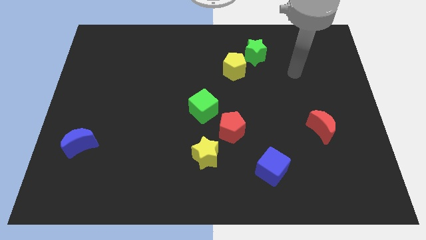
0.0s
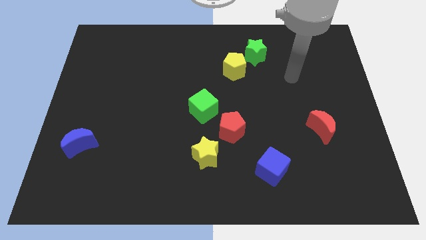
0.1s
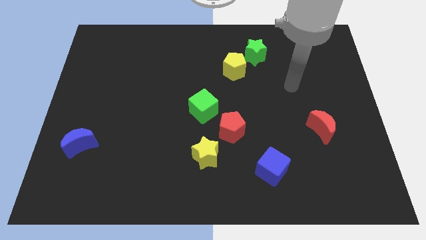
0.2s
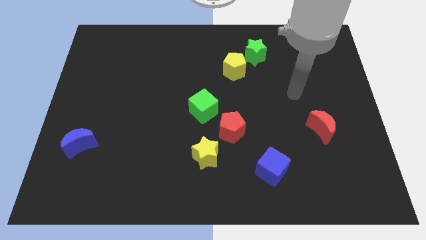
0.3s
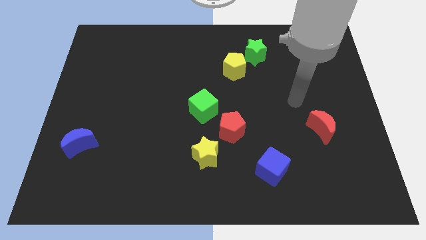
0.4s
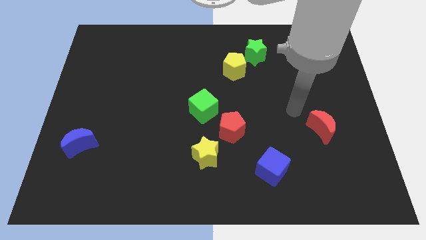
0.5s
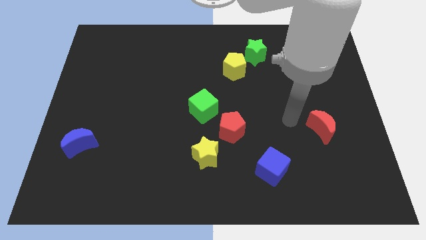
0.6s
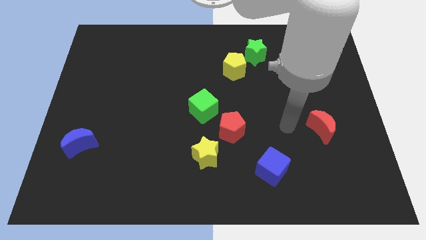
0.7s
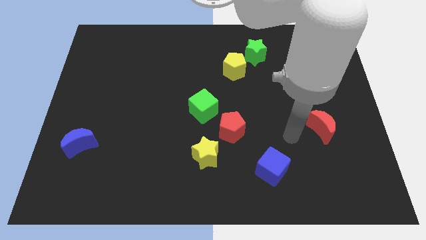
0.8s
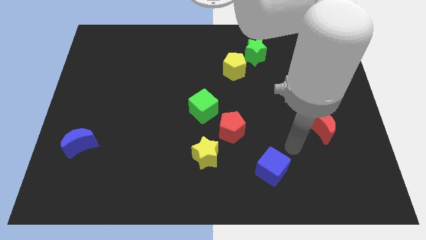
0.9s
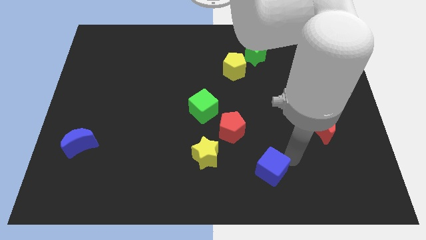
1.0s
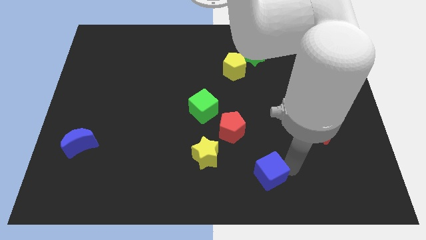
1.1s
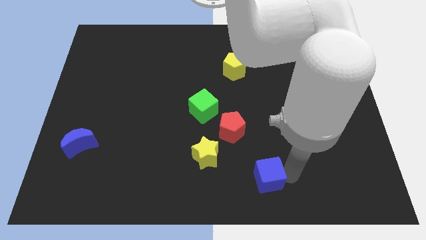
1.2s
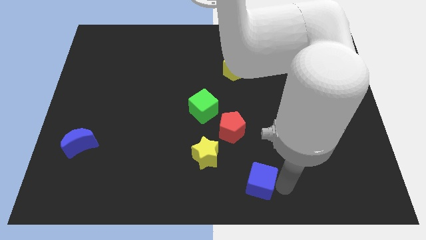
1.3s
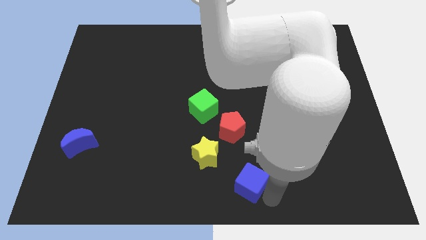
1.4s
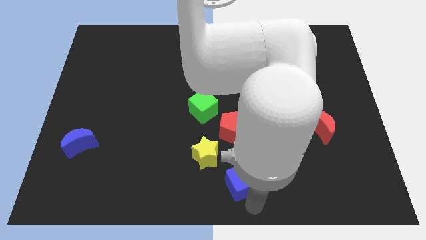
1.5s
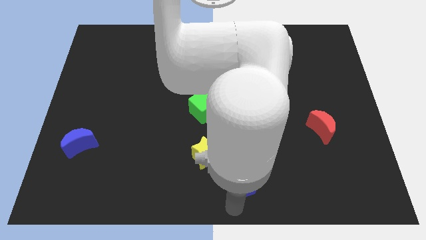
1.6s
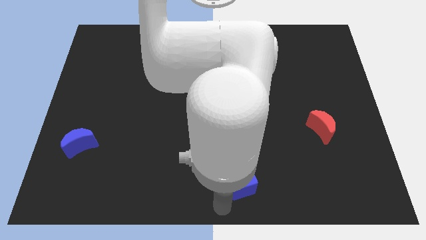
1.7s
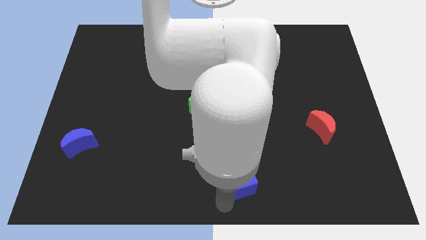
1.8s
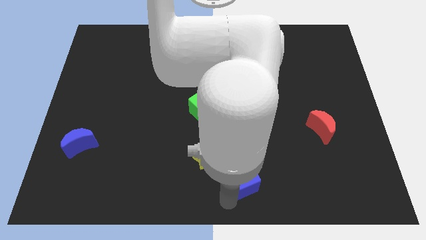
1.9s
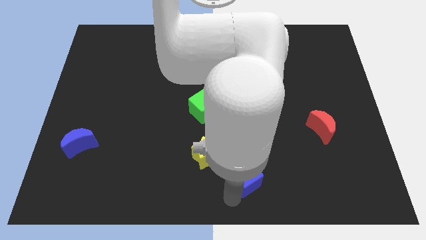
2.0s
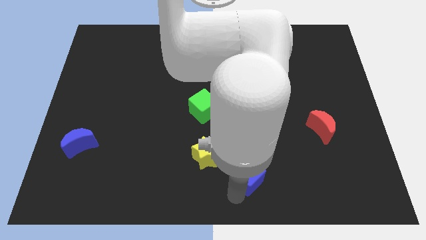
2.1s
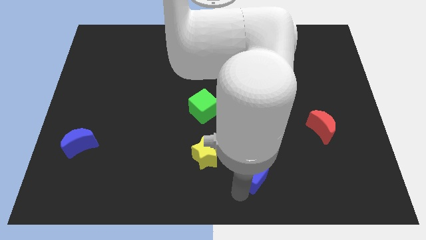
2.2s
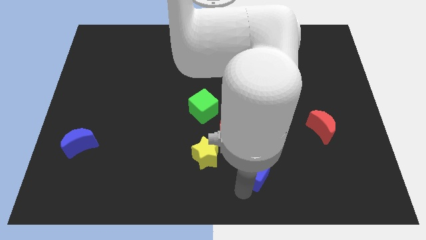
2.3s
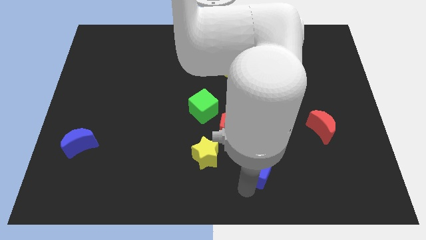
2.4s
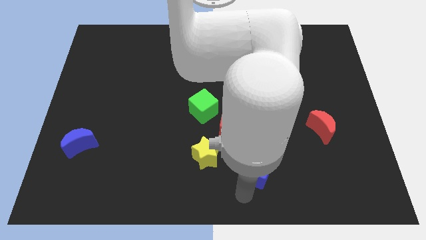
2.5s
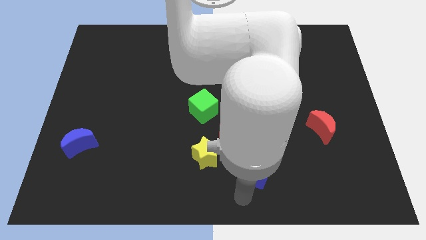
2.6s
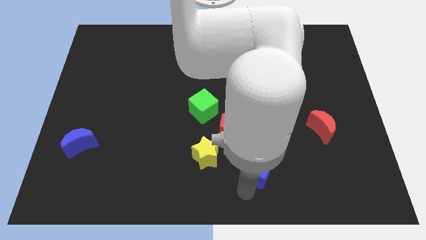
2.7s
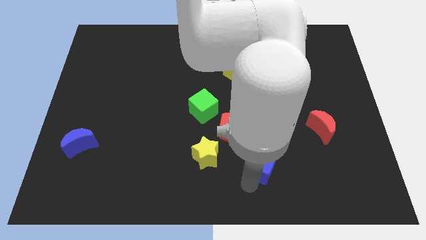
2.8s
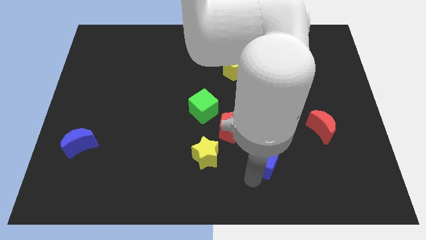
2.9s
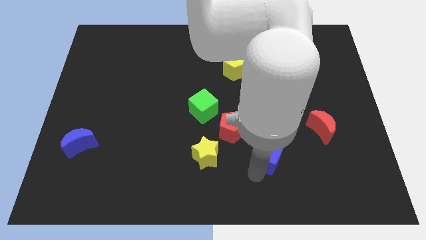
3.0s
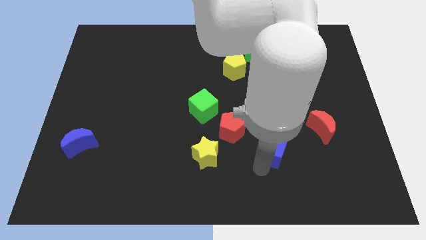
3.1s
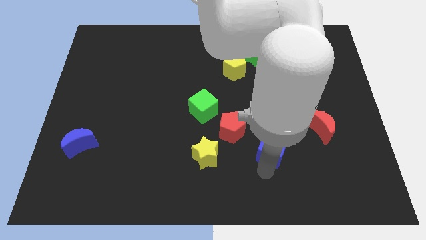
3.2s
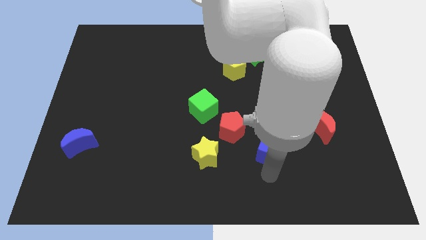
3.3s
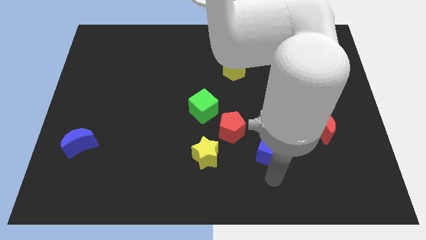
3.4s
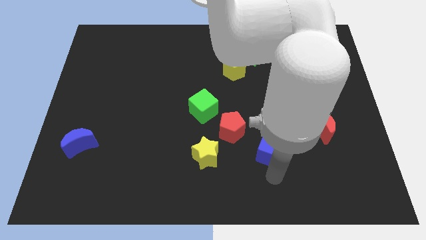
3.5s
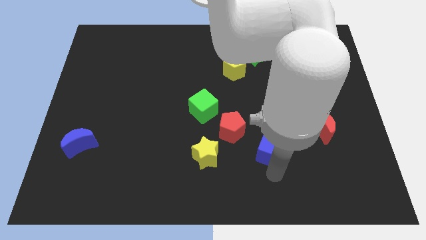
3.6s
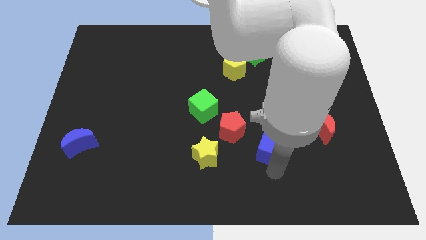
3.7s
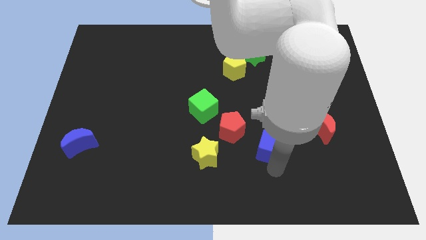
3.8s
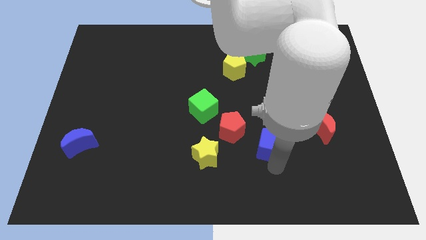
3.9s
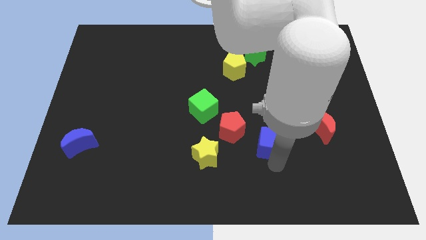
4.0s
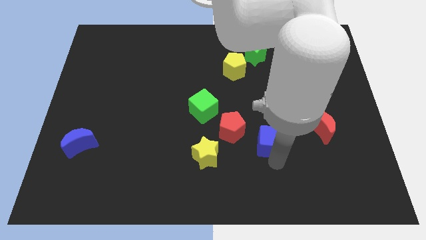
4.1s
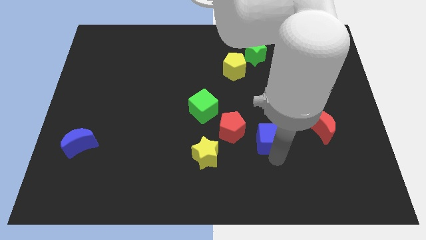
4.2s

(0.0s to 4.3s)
move the blue cube a little upwards

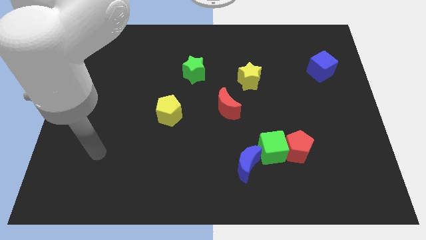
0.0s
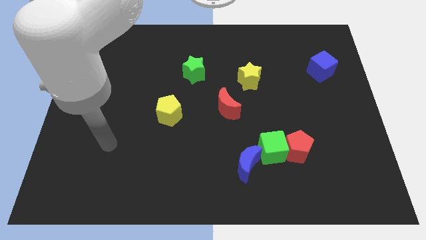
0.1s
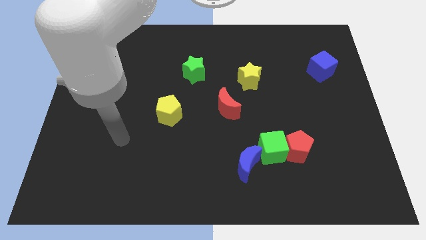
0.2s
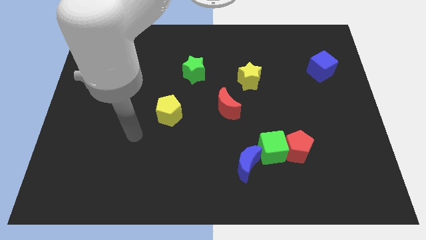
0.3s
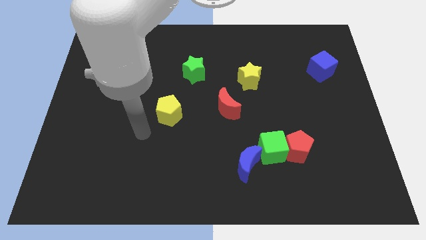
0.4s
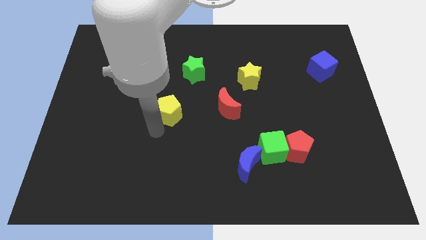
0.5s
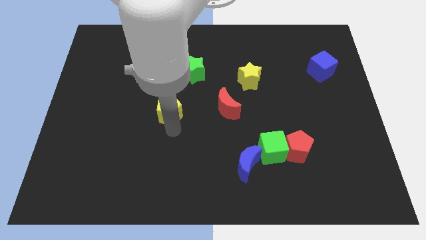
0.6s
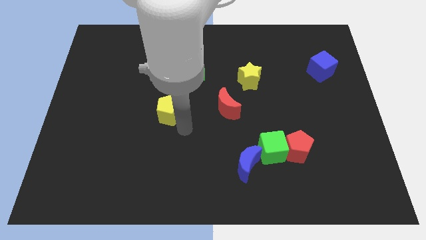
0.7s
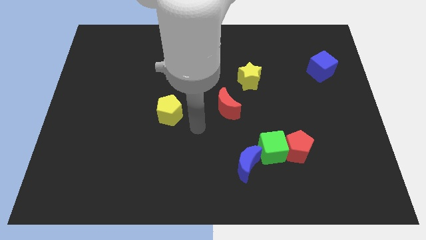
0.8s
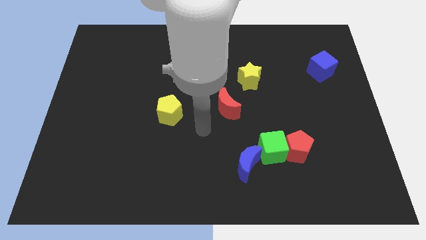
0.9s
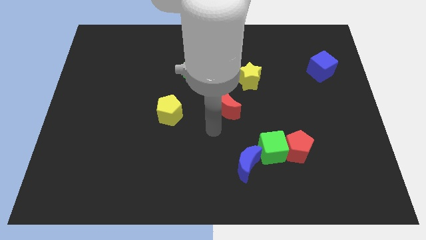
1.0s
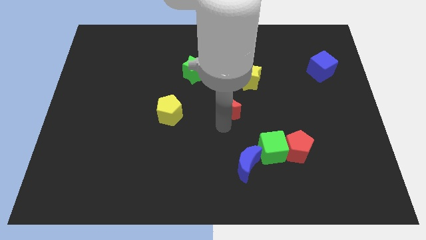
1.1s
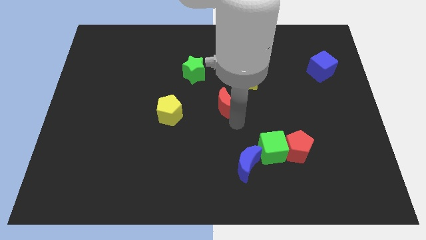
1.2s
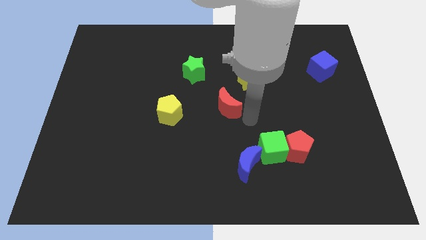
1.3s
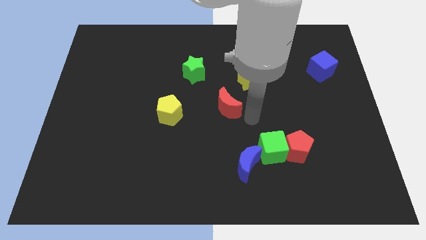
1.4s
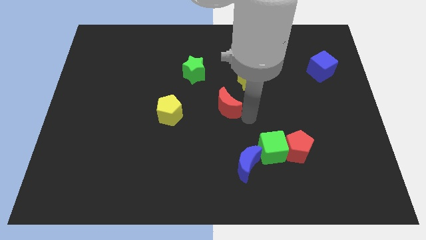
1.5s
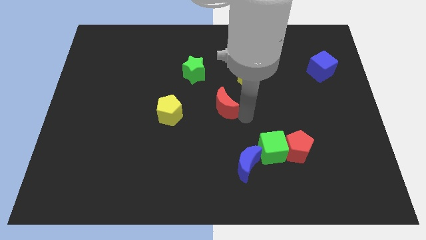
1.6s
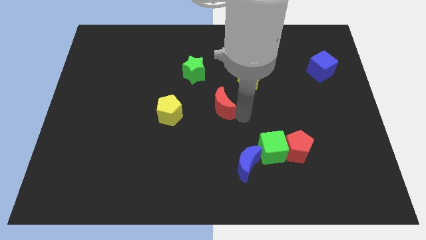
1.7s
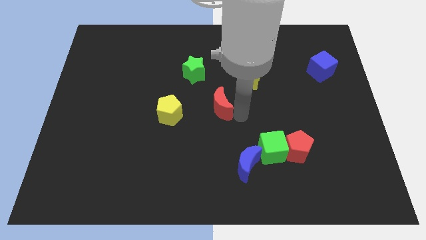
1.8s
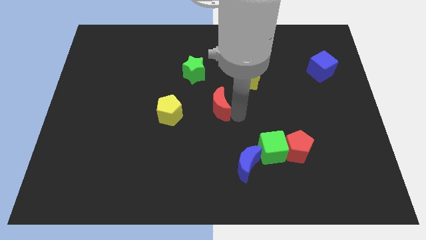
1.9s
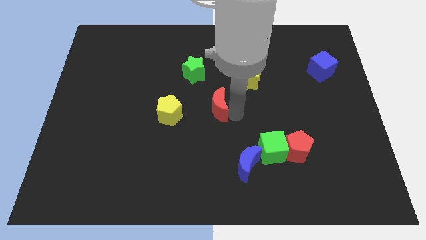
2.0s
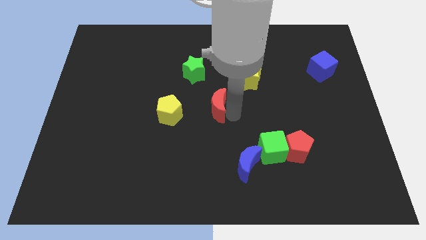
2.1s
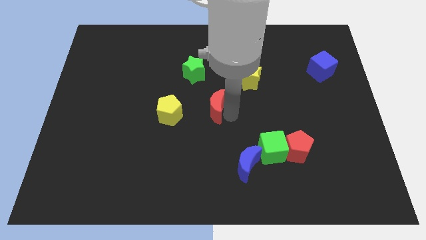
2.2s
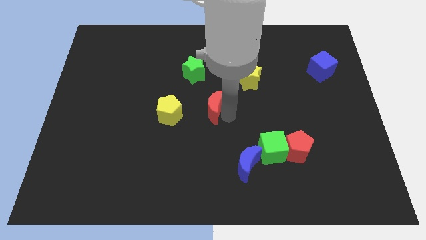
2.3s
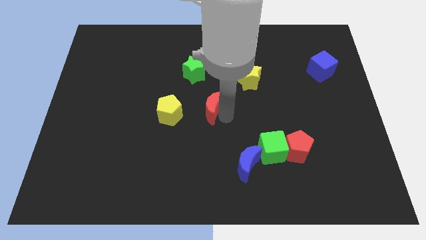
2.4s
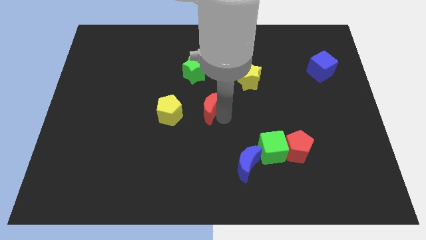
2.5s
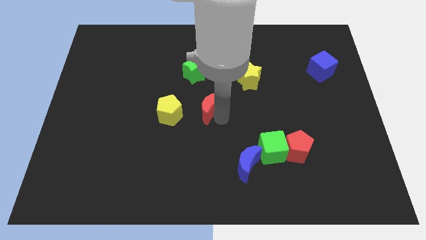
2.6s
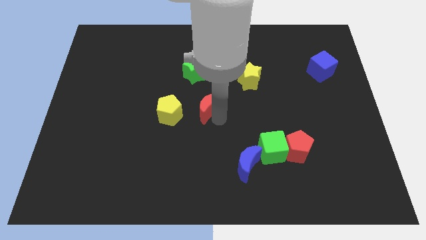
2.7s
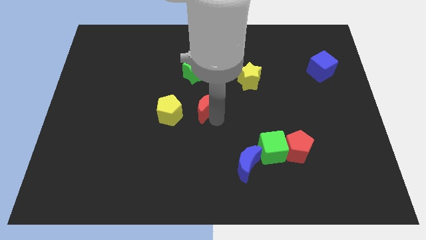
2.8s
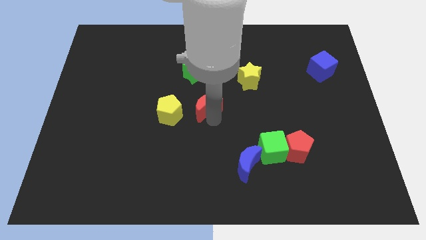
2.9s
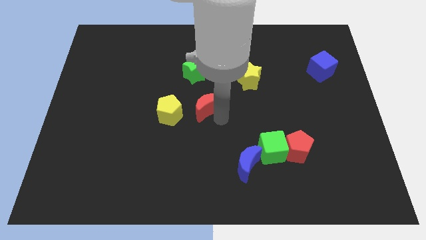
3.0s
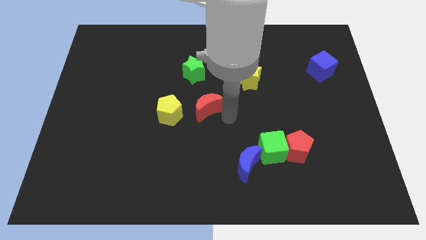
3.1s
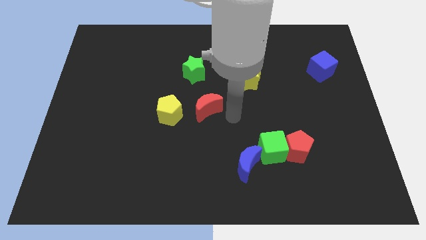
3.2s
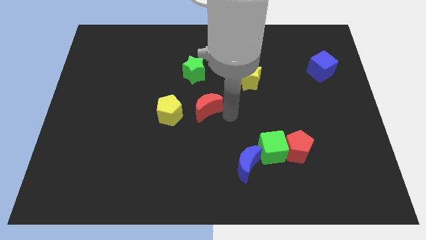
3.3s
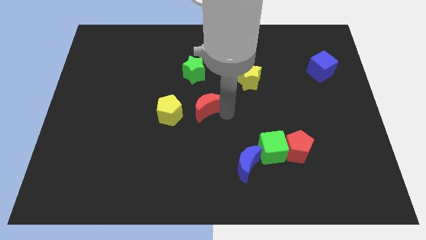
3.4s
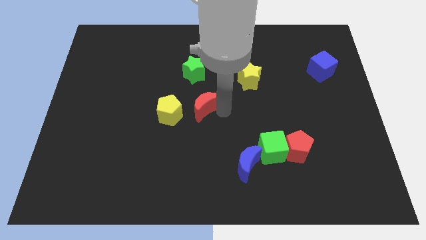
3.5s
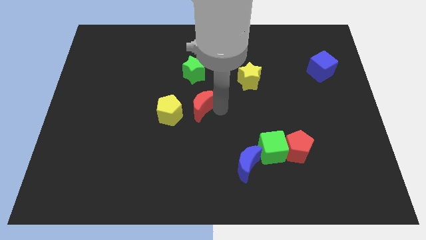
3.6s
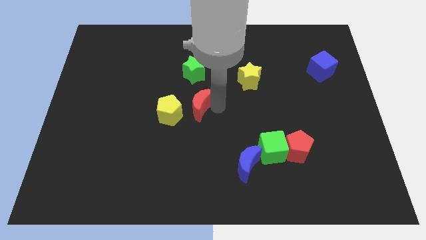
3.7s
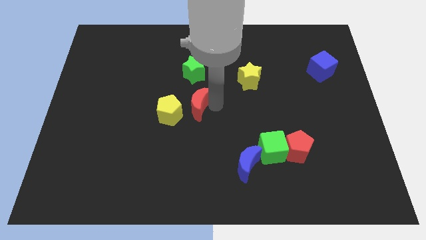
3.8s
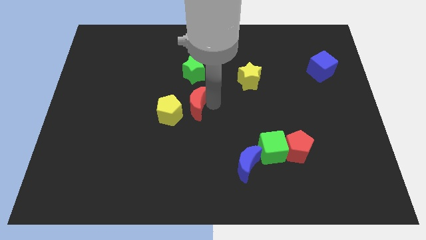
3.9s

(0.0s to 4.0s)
slightly push the red moon left
